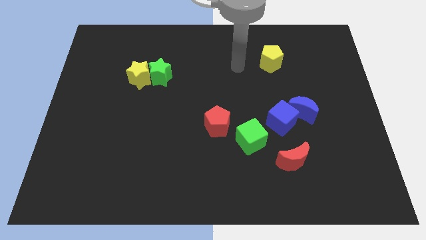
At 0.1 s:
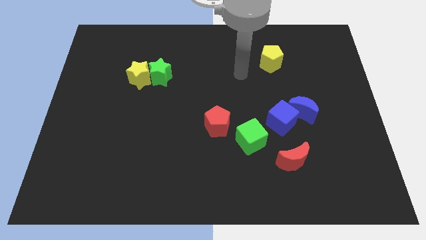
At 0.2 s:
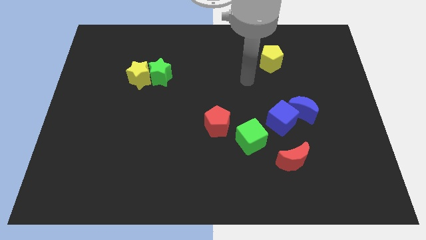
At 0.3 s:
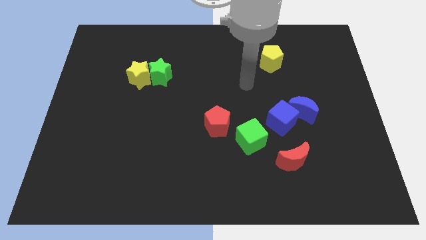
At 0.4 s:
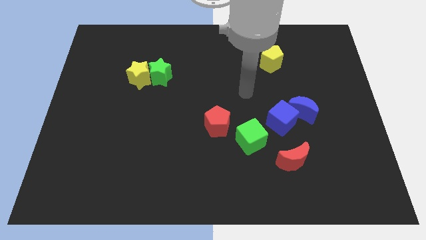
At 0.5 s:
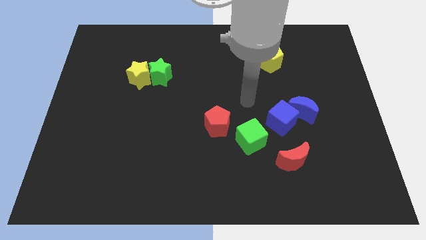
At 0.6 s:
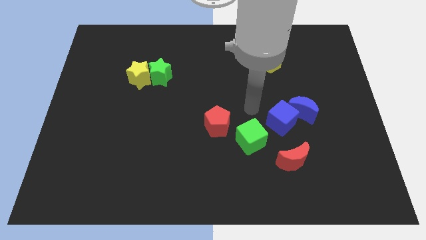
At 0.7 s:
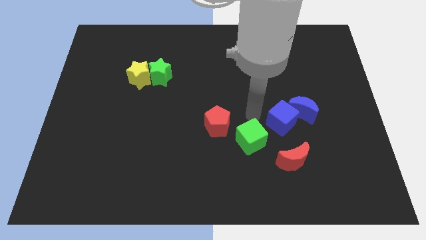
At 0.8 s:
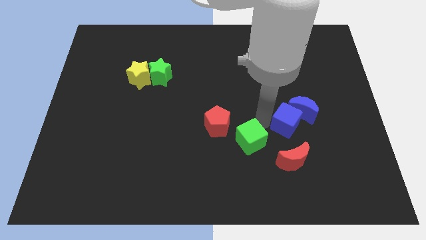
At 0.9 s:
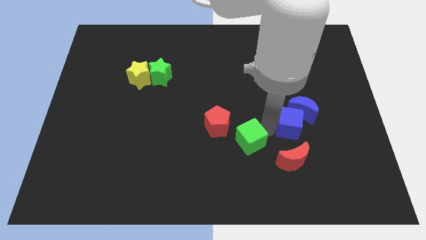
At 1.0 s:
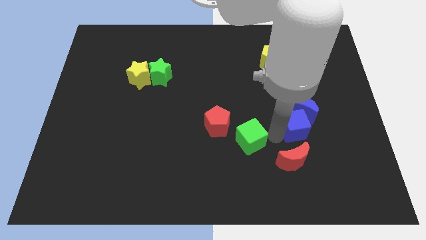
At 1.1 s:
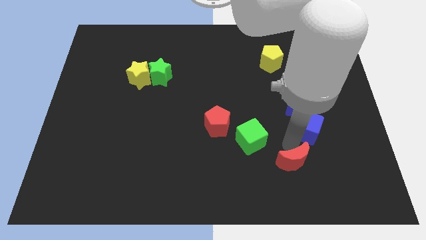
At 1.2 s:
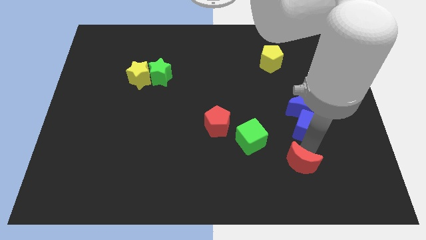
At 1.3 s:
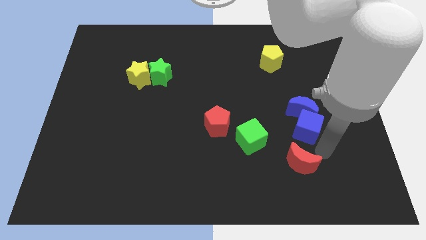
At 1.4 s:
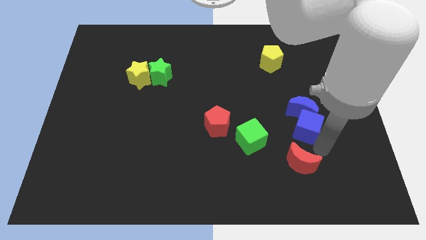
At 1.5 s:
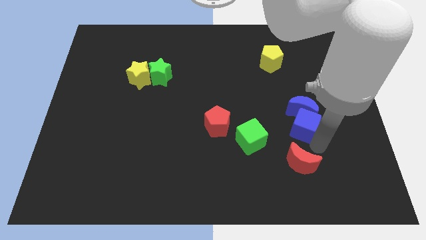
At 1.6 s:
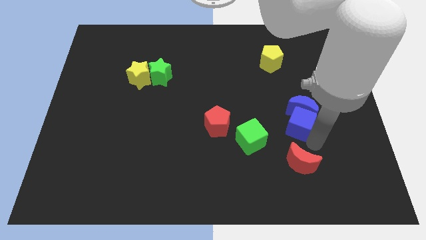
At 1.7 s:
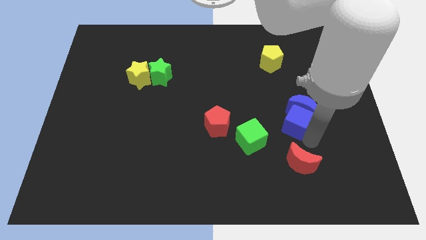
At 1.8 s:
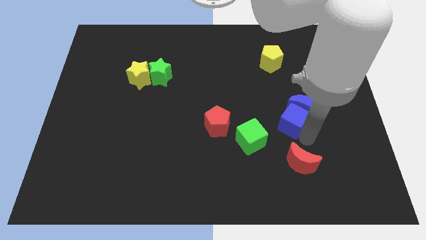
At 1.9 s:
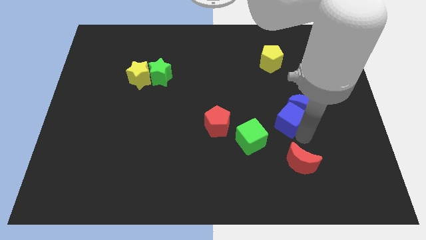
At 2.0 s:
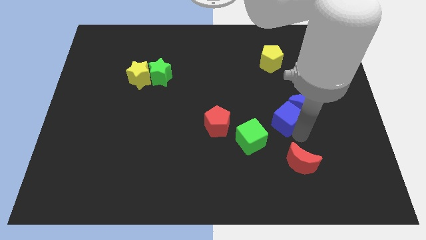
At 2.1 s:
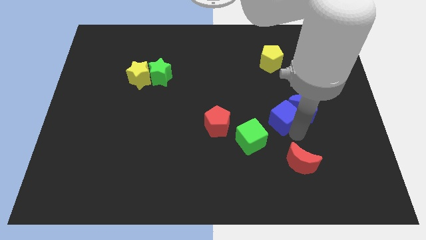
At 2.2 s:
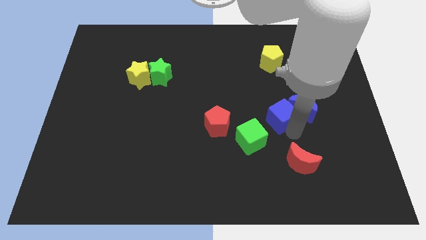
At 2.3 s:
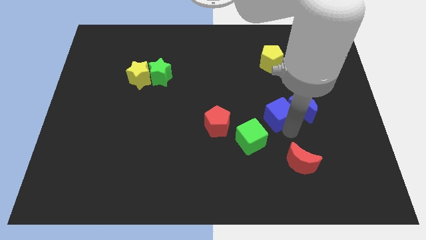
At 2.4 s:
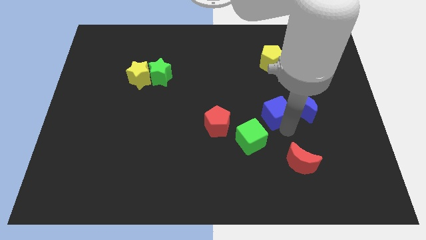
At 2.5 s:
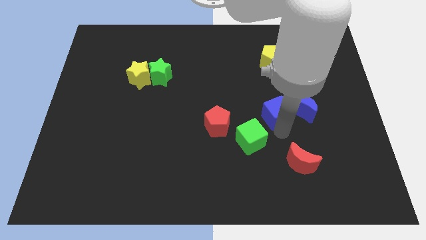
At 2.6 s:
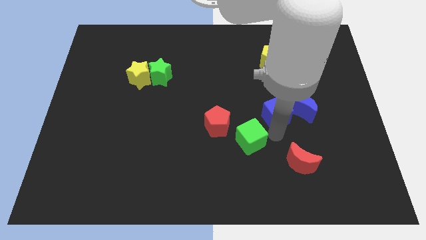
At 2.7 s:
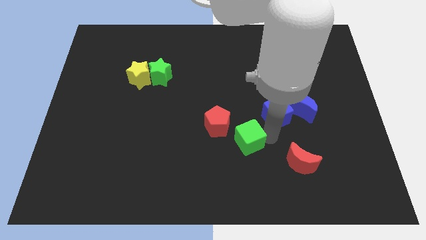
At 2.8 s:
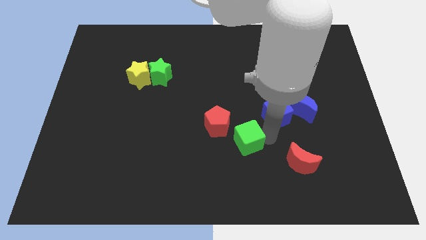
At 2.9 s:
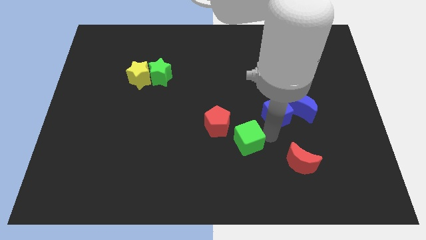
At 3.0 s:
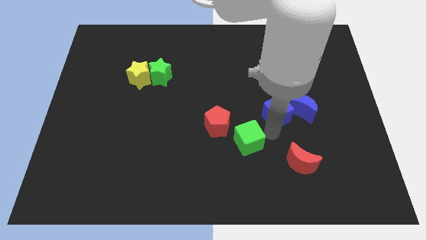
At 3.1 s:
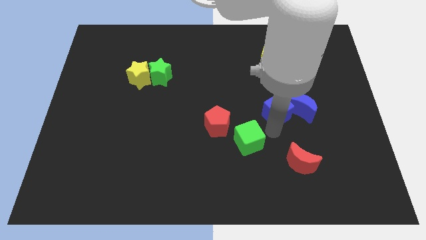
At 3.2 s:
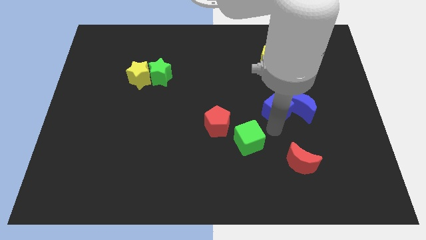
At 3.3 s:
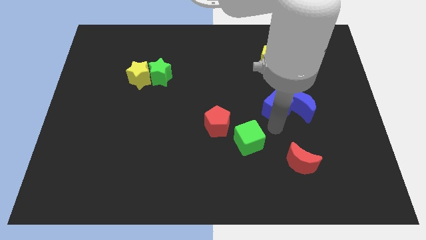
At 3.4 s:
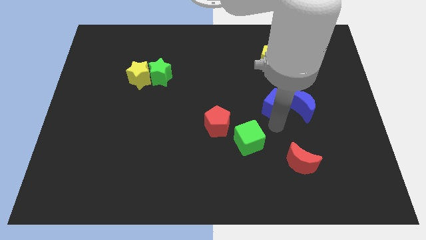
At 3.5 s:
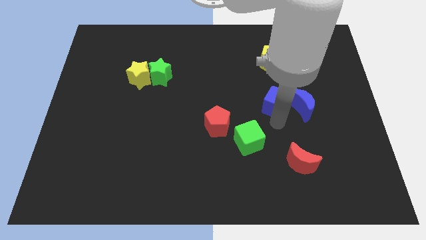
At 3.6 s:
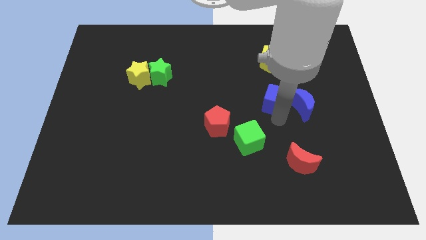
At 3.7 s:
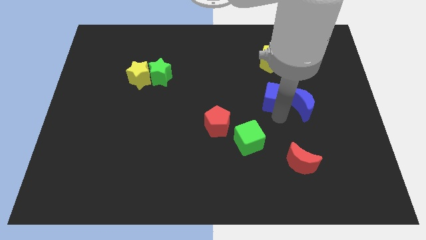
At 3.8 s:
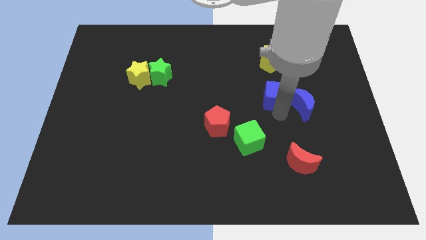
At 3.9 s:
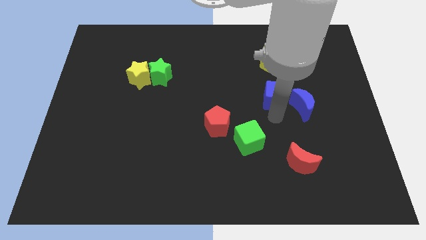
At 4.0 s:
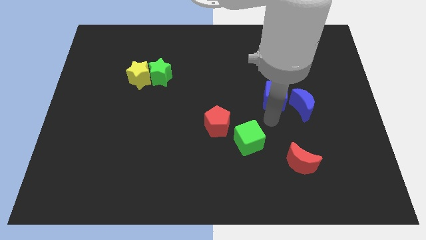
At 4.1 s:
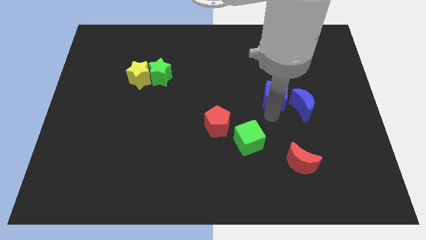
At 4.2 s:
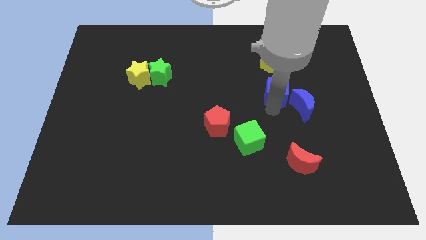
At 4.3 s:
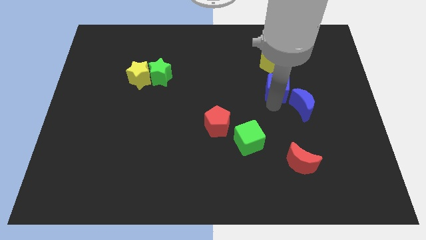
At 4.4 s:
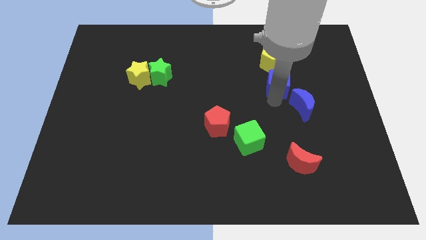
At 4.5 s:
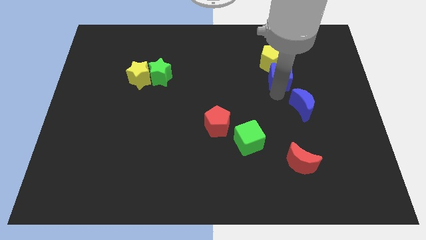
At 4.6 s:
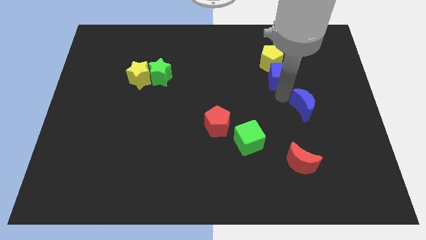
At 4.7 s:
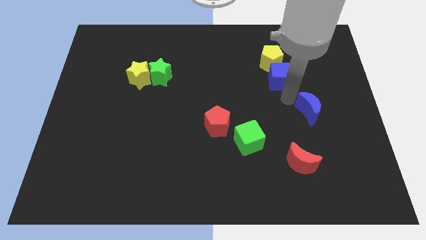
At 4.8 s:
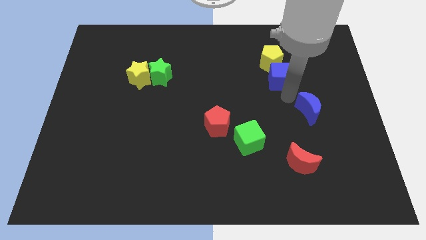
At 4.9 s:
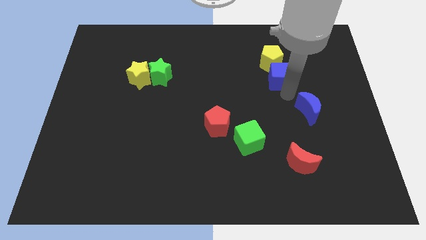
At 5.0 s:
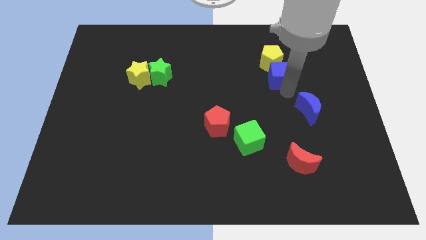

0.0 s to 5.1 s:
move the blue cube close to the yellow pentagon

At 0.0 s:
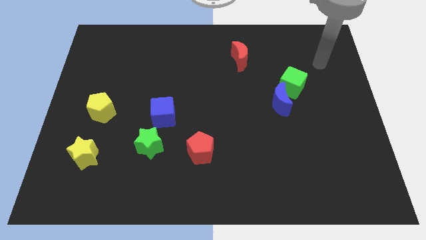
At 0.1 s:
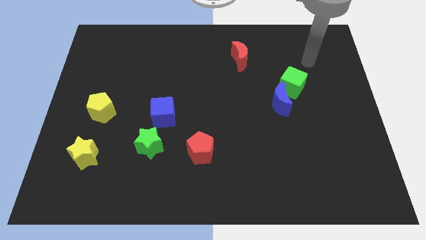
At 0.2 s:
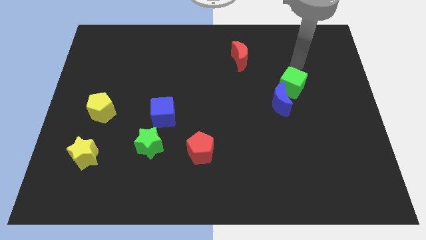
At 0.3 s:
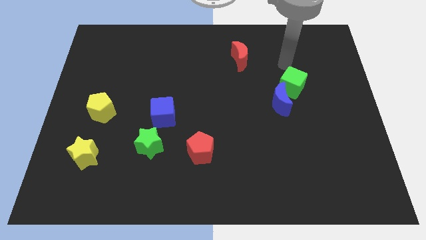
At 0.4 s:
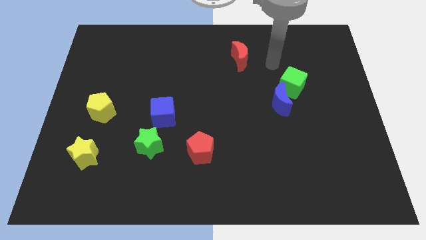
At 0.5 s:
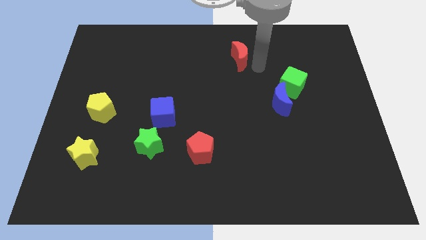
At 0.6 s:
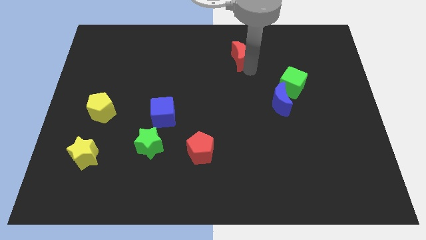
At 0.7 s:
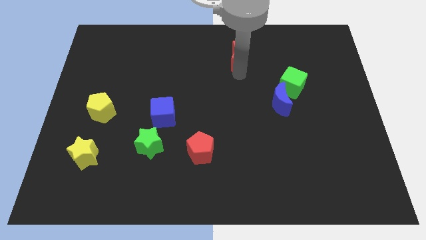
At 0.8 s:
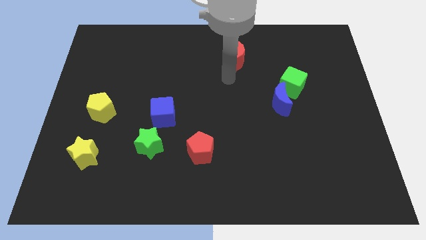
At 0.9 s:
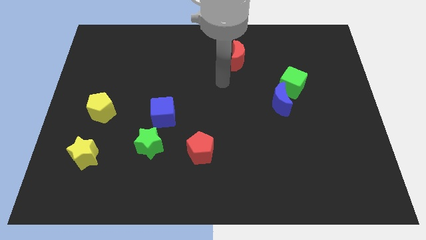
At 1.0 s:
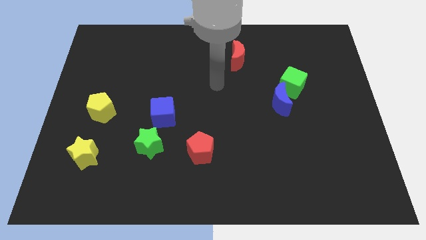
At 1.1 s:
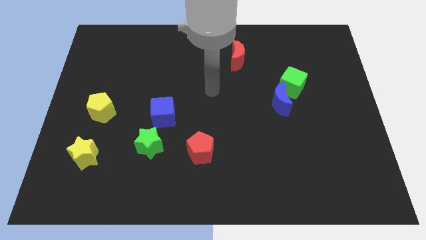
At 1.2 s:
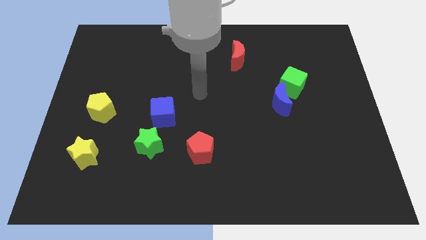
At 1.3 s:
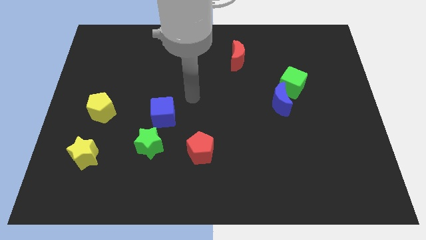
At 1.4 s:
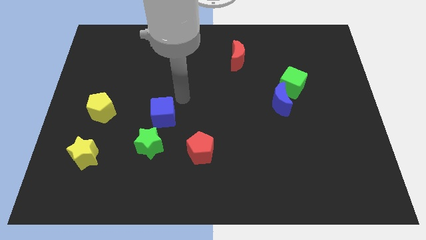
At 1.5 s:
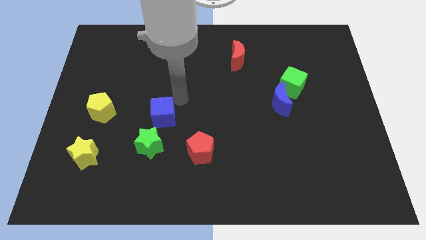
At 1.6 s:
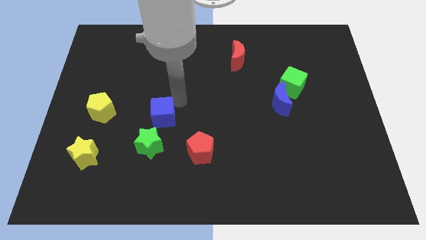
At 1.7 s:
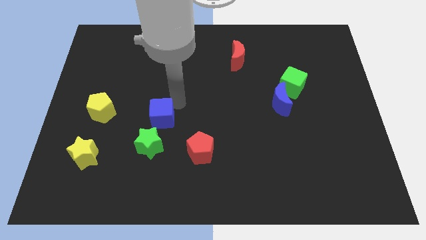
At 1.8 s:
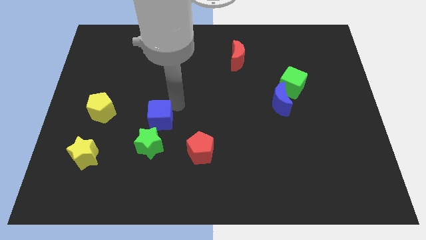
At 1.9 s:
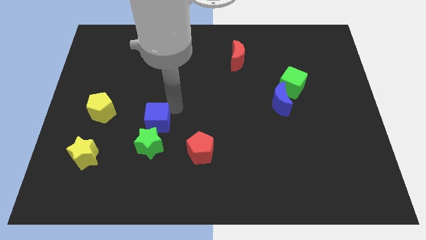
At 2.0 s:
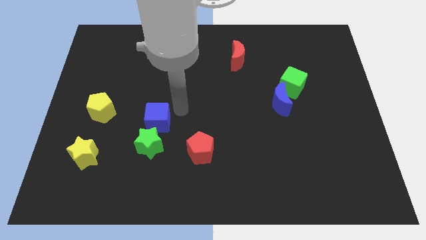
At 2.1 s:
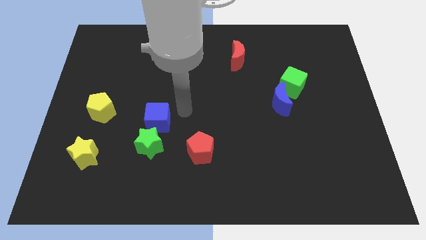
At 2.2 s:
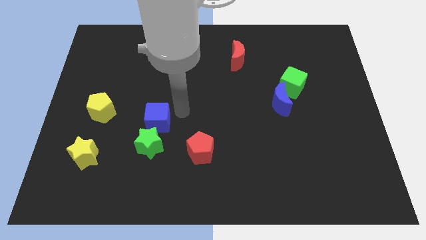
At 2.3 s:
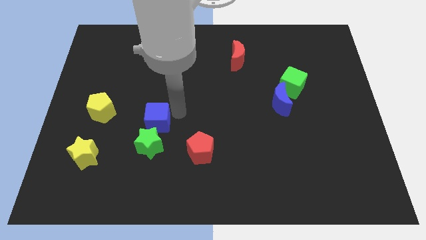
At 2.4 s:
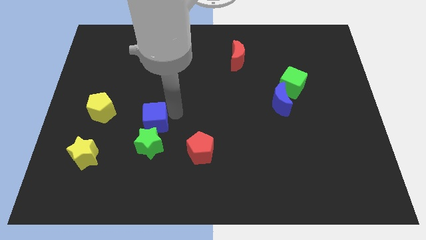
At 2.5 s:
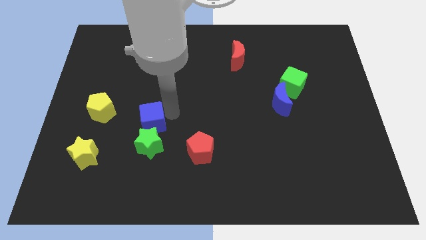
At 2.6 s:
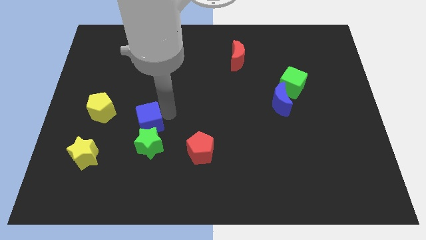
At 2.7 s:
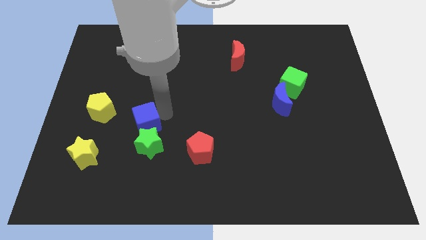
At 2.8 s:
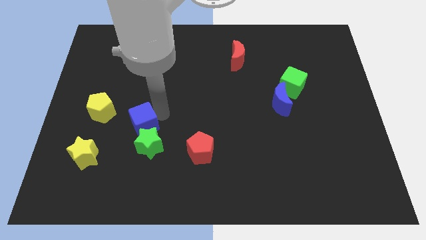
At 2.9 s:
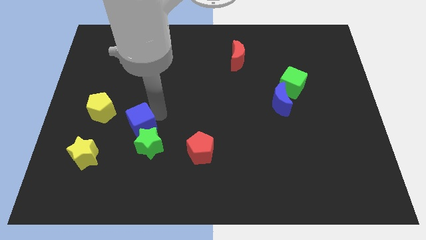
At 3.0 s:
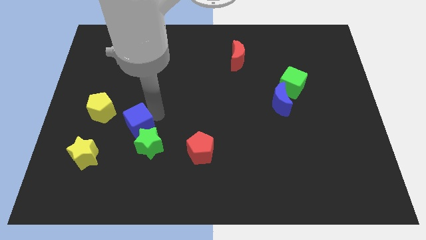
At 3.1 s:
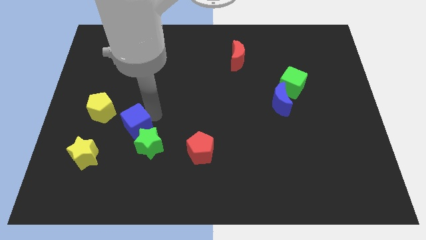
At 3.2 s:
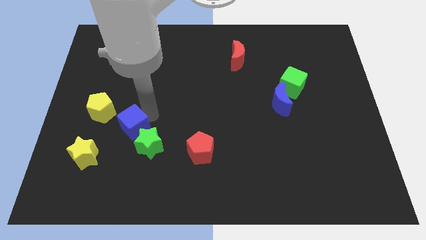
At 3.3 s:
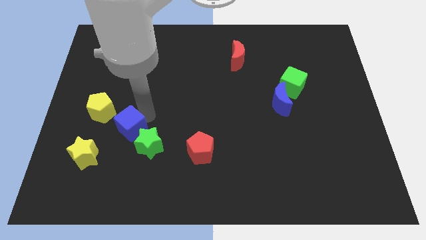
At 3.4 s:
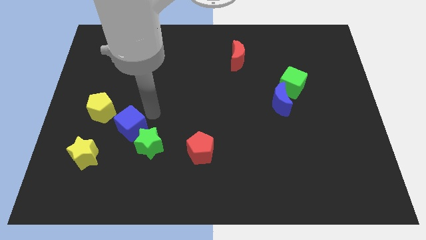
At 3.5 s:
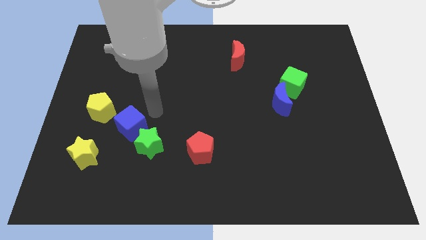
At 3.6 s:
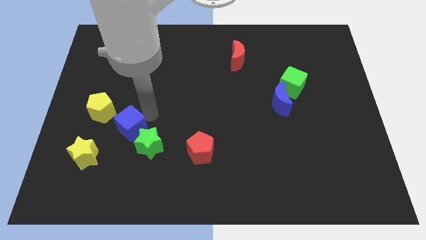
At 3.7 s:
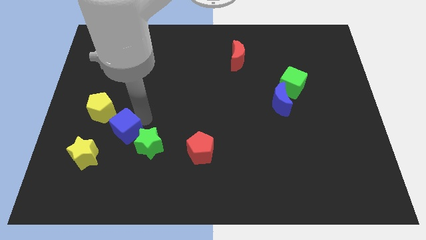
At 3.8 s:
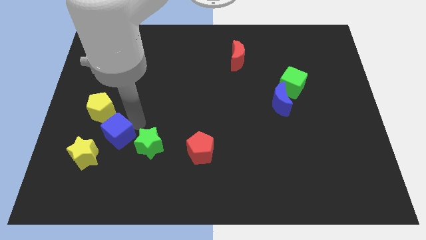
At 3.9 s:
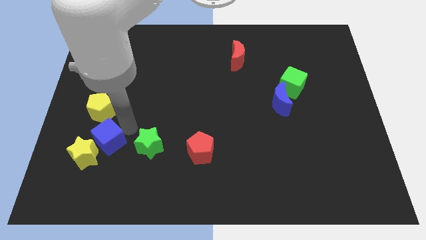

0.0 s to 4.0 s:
move the blue cube next to the yellow star
